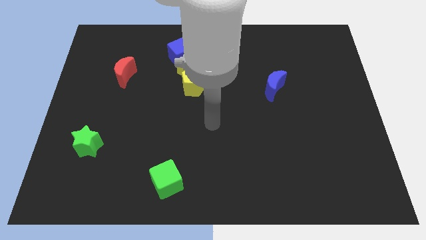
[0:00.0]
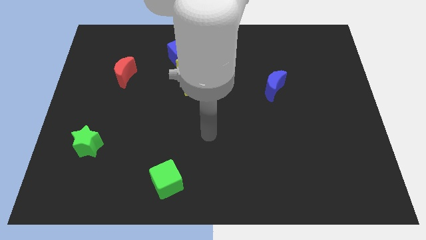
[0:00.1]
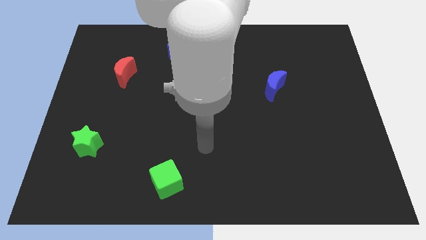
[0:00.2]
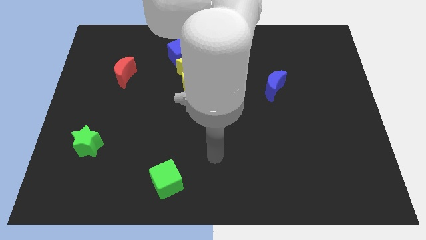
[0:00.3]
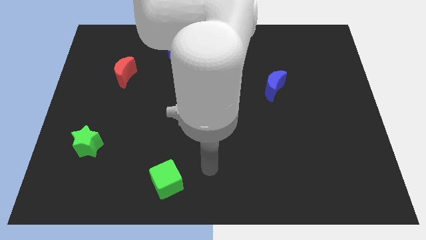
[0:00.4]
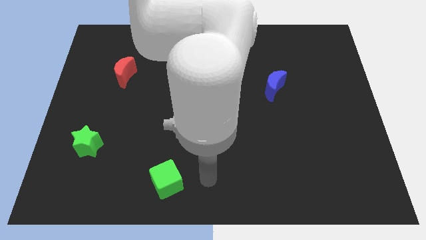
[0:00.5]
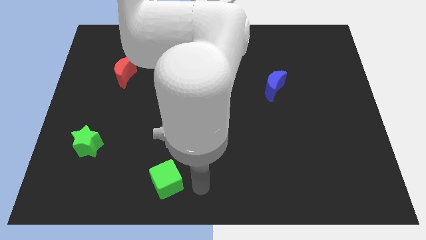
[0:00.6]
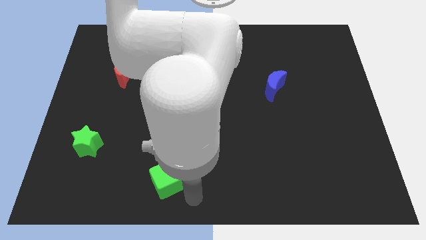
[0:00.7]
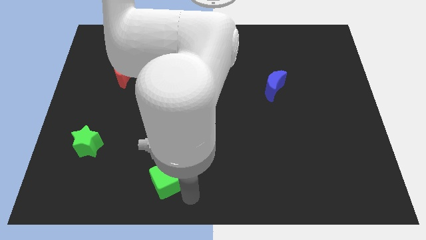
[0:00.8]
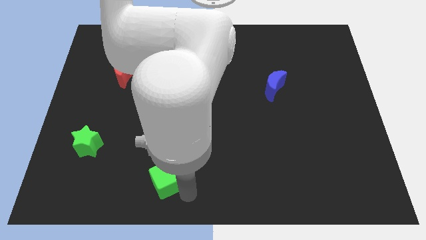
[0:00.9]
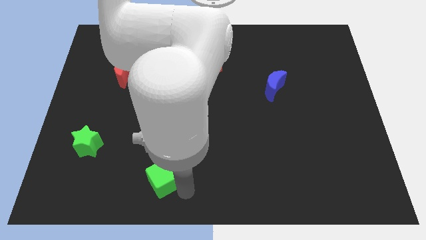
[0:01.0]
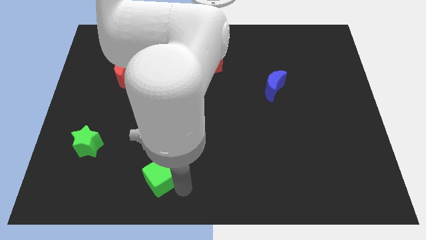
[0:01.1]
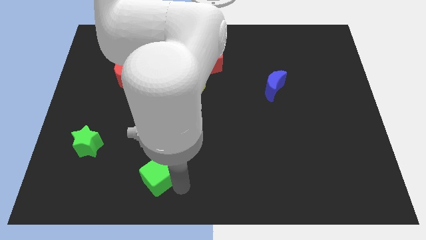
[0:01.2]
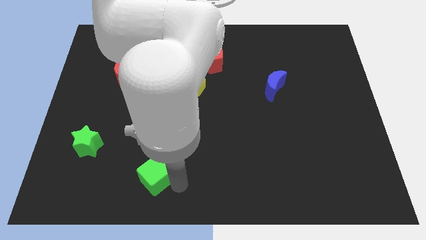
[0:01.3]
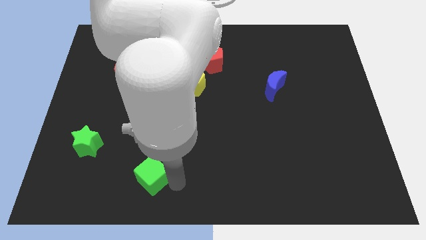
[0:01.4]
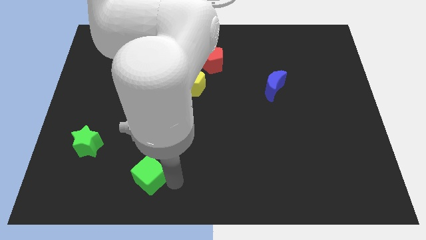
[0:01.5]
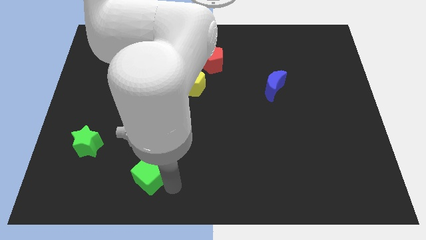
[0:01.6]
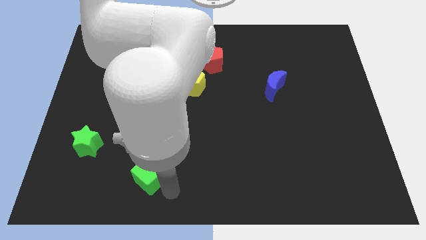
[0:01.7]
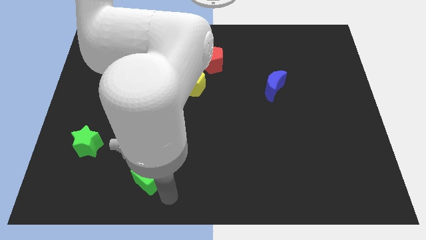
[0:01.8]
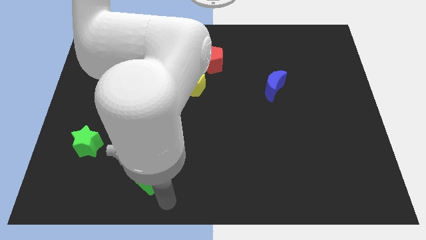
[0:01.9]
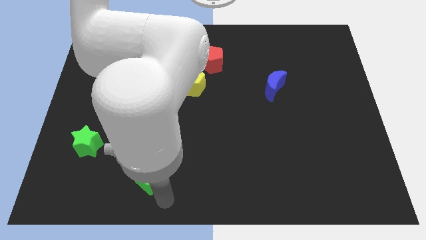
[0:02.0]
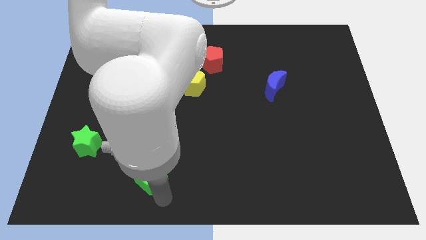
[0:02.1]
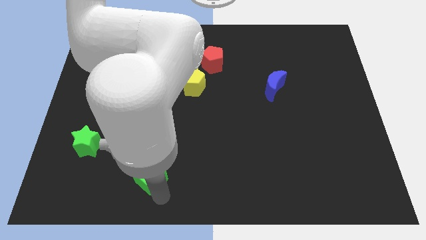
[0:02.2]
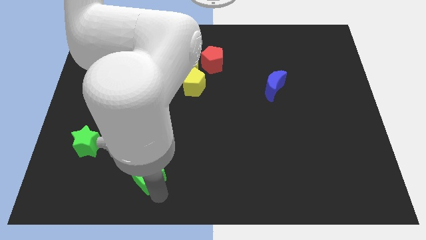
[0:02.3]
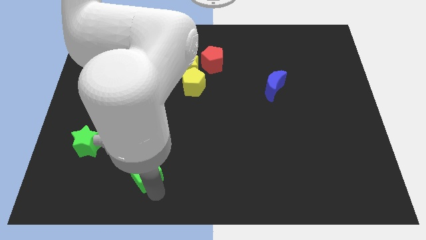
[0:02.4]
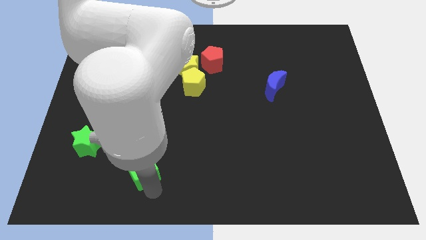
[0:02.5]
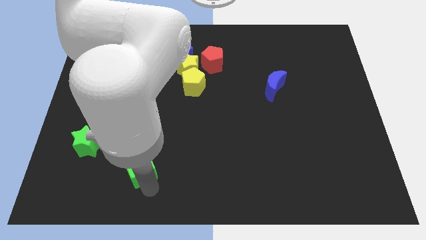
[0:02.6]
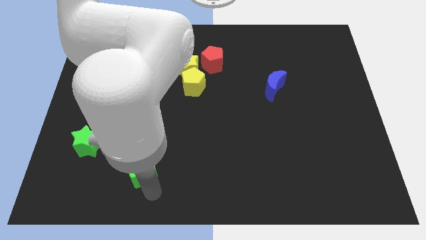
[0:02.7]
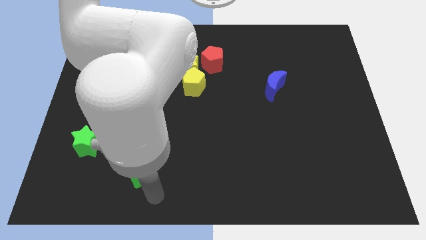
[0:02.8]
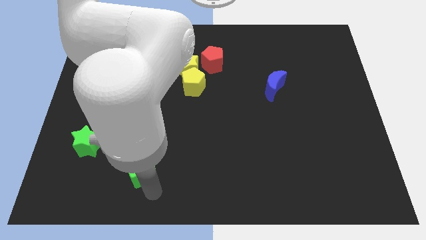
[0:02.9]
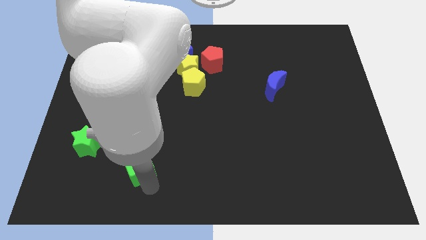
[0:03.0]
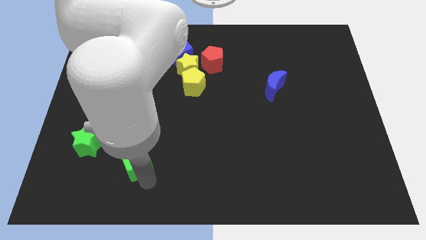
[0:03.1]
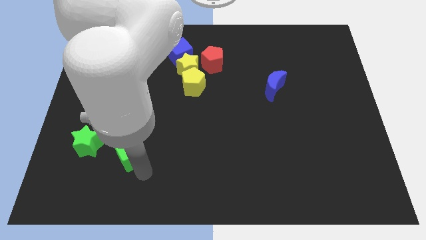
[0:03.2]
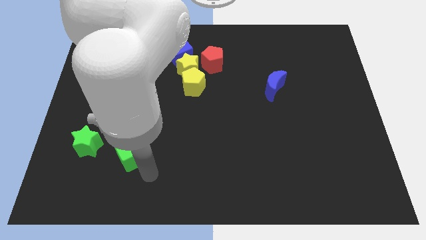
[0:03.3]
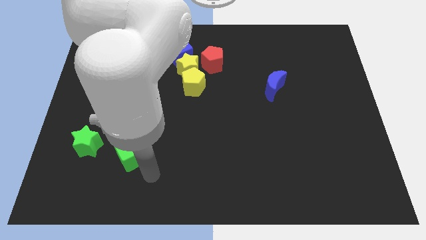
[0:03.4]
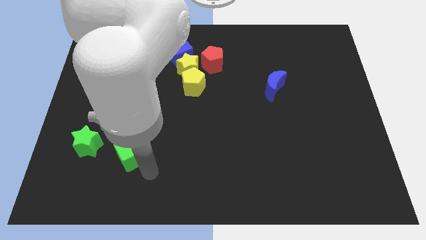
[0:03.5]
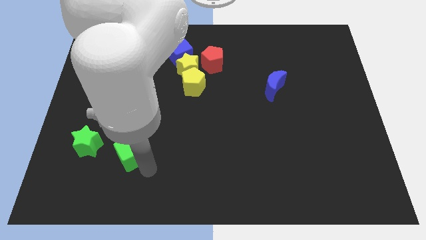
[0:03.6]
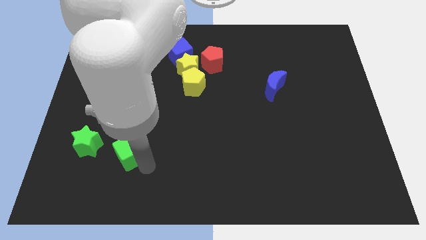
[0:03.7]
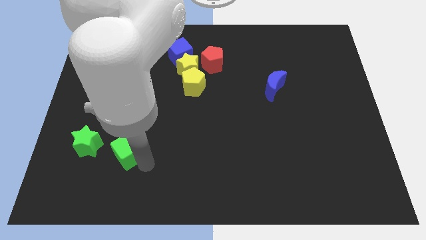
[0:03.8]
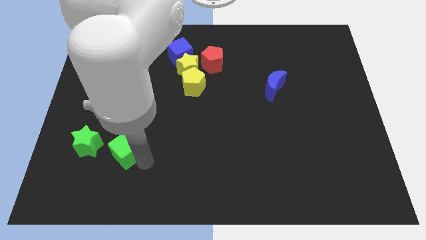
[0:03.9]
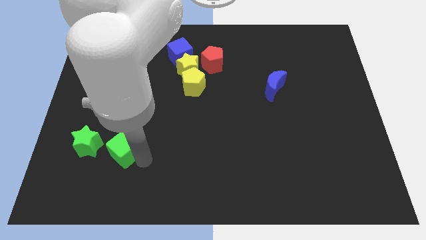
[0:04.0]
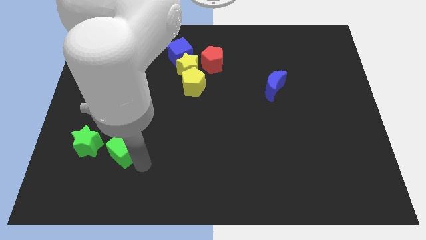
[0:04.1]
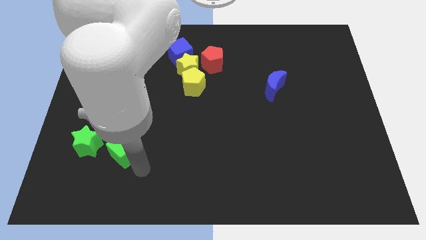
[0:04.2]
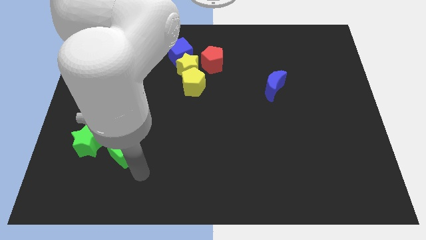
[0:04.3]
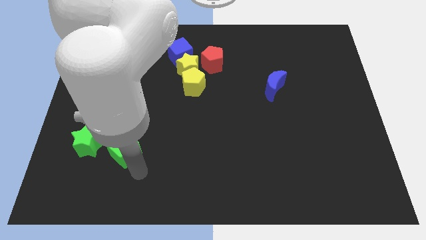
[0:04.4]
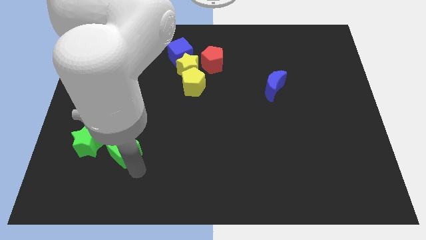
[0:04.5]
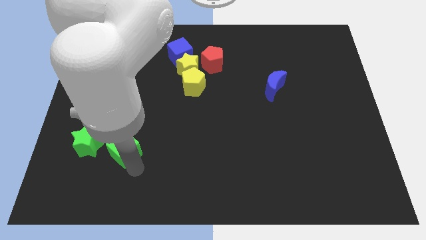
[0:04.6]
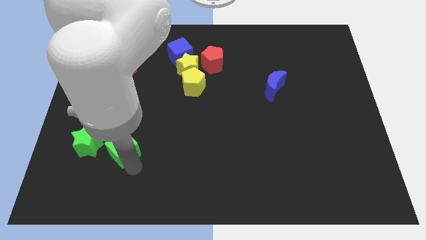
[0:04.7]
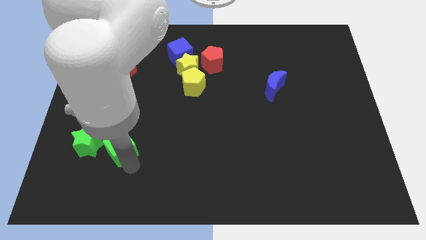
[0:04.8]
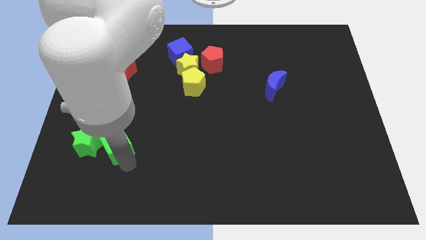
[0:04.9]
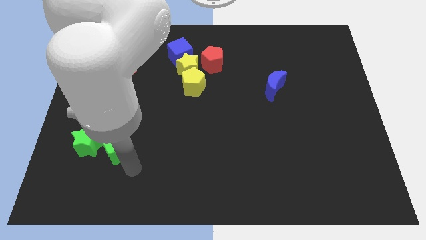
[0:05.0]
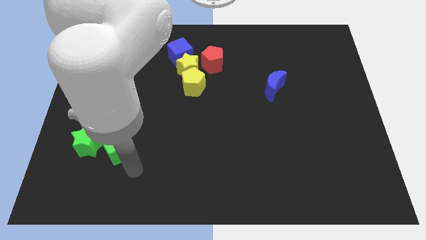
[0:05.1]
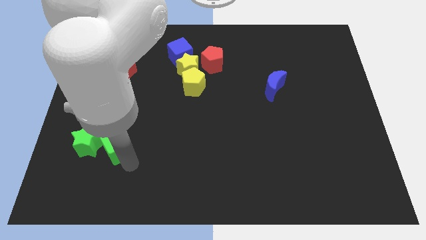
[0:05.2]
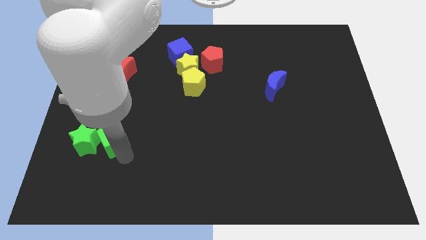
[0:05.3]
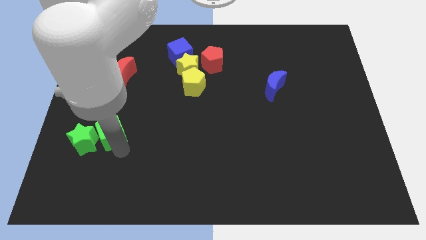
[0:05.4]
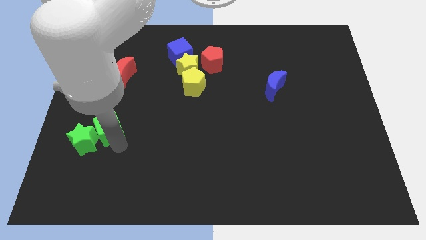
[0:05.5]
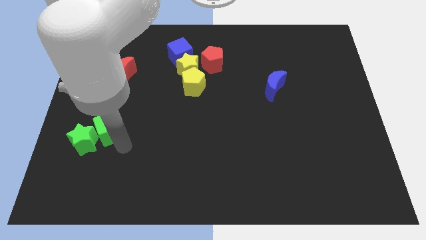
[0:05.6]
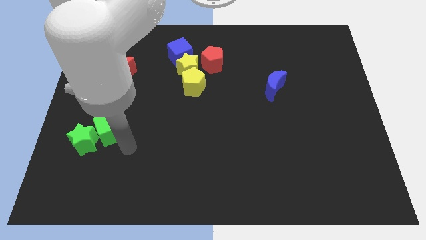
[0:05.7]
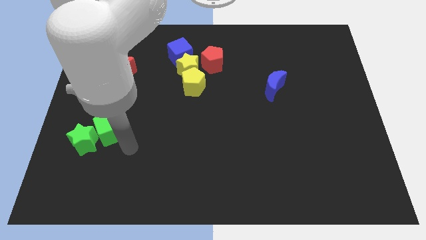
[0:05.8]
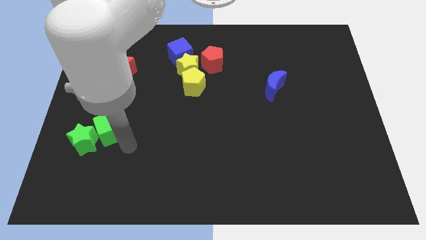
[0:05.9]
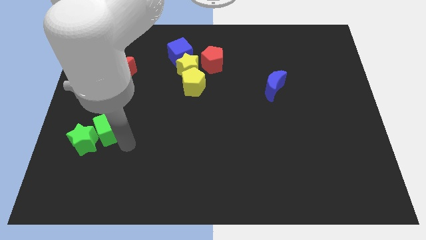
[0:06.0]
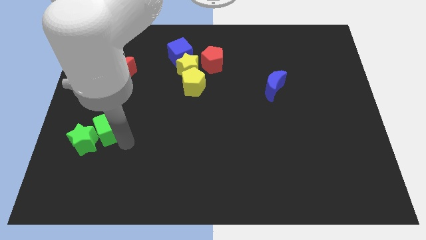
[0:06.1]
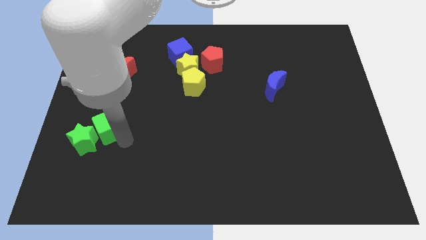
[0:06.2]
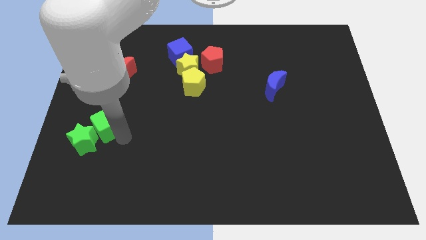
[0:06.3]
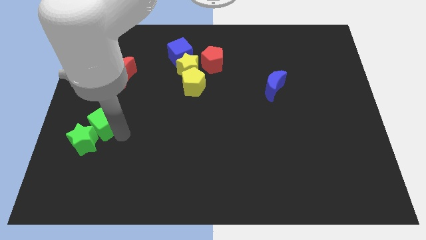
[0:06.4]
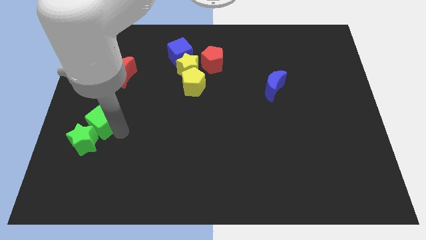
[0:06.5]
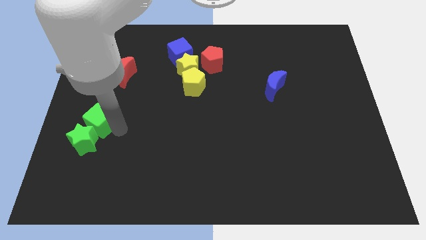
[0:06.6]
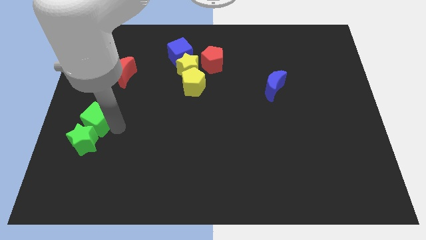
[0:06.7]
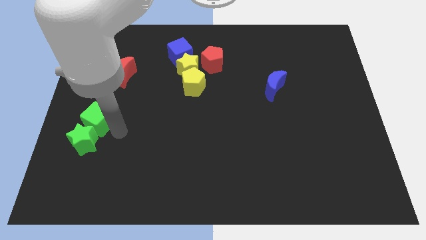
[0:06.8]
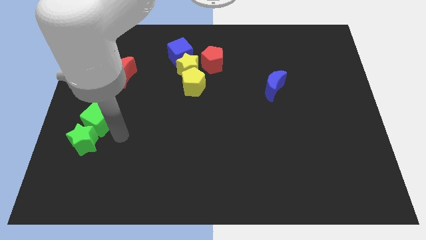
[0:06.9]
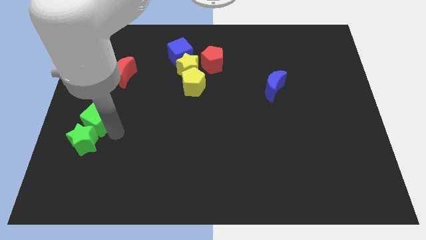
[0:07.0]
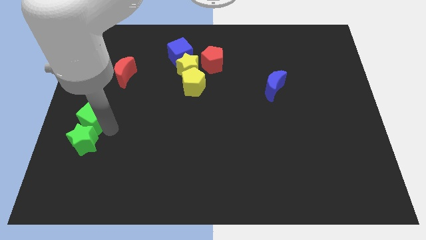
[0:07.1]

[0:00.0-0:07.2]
push the green cube to the left side of the board

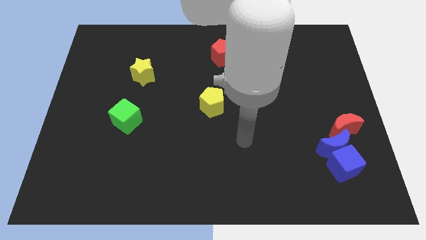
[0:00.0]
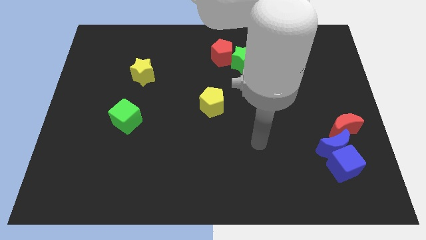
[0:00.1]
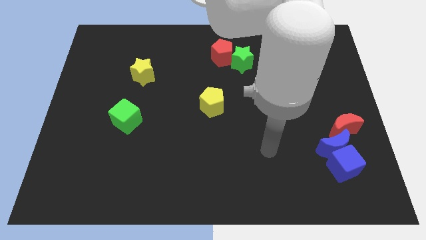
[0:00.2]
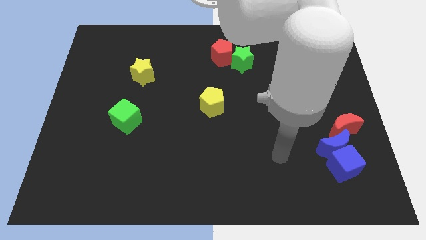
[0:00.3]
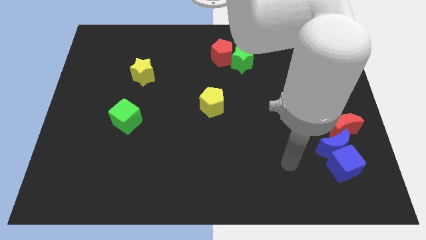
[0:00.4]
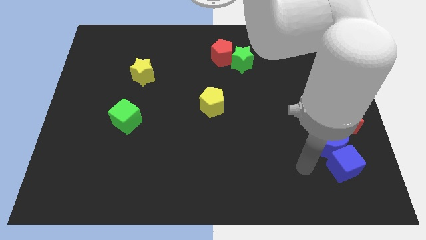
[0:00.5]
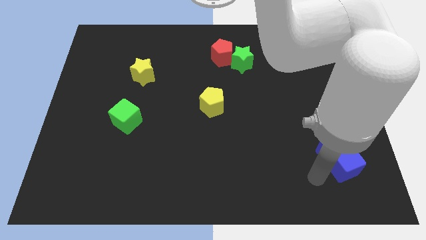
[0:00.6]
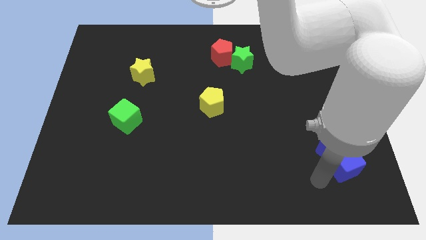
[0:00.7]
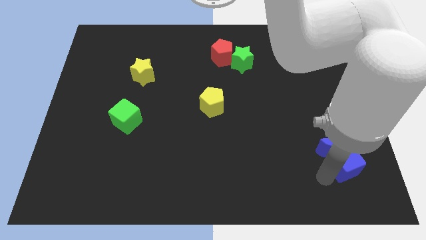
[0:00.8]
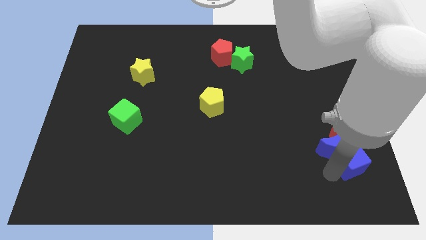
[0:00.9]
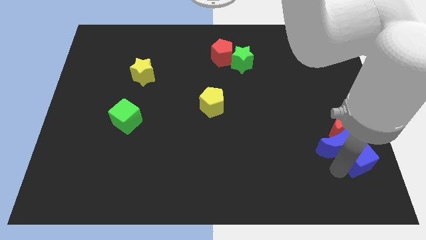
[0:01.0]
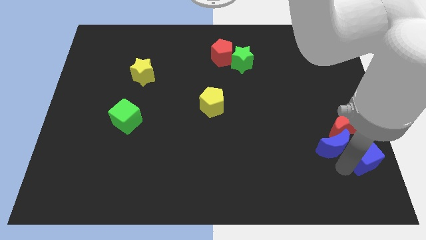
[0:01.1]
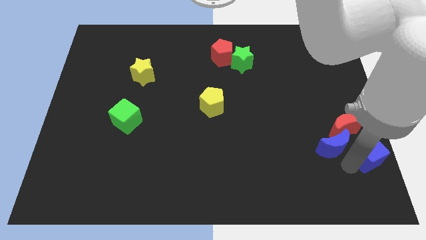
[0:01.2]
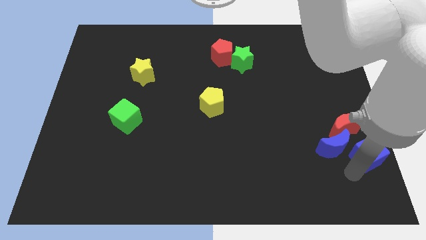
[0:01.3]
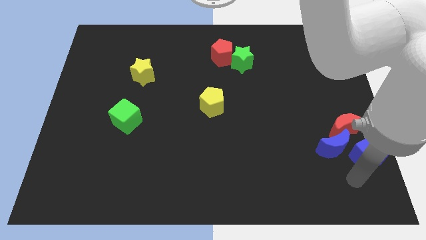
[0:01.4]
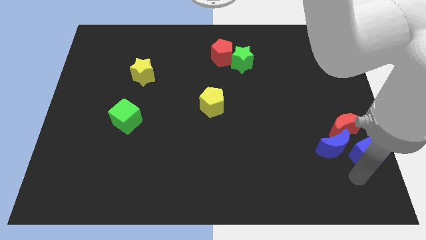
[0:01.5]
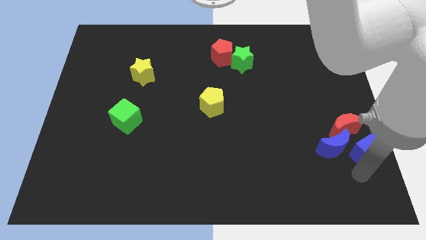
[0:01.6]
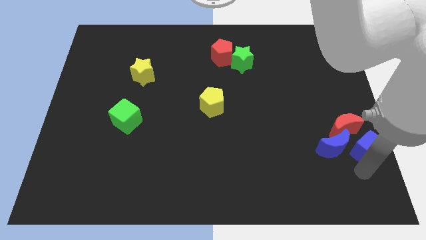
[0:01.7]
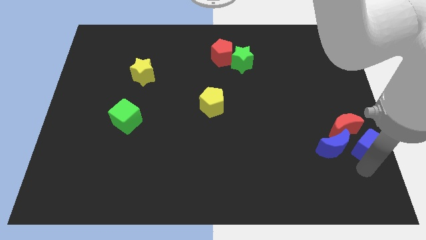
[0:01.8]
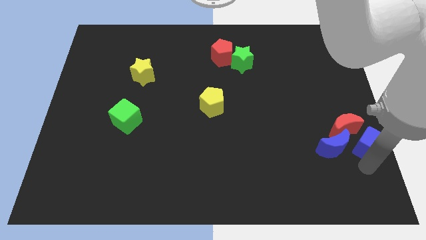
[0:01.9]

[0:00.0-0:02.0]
put the blue cube to the center right
